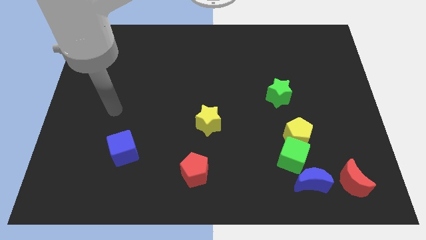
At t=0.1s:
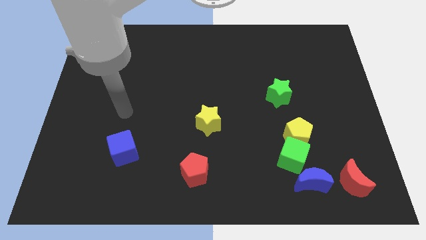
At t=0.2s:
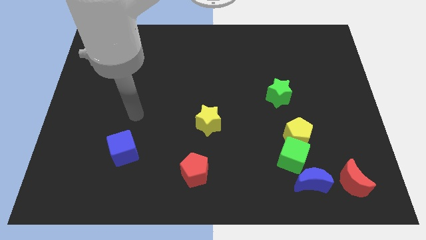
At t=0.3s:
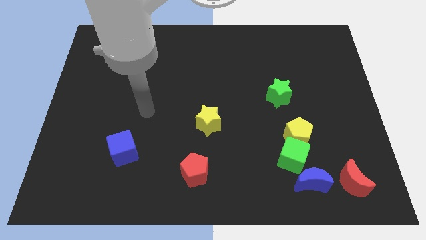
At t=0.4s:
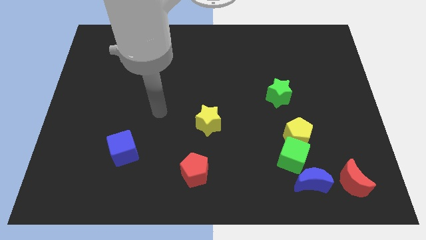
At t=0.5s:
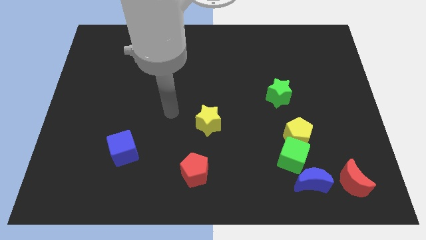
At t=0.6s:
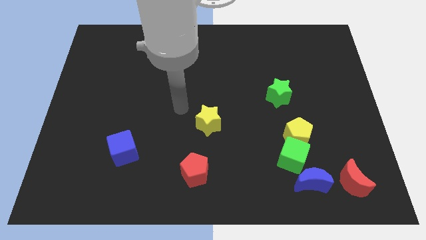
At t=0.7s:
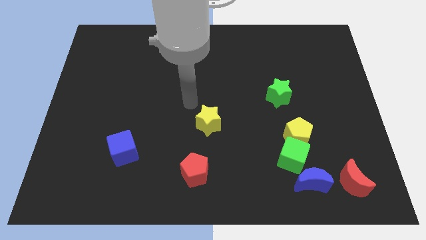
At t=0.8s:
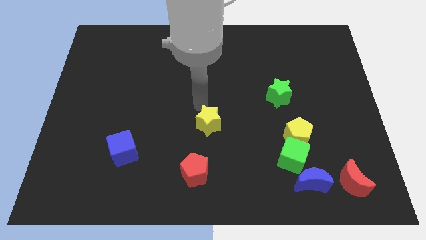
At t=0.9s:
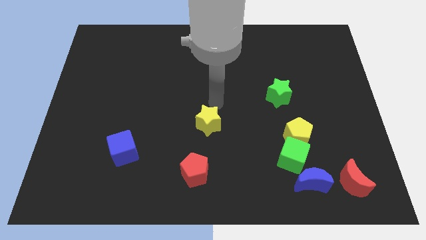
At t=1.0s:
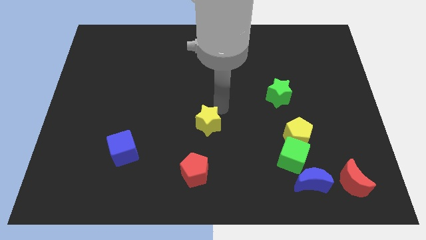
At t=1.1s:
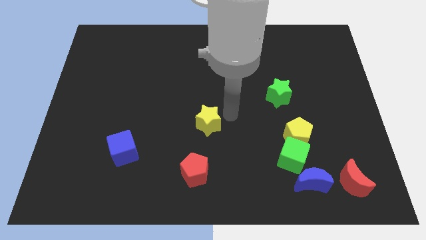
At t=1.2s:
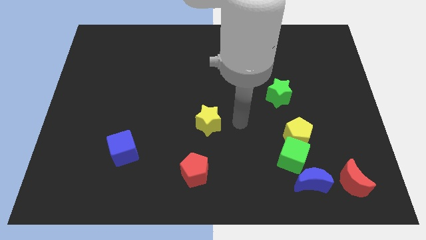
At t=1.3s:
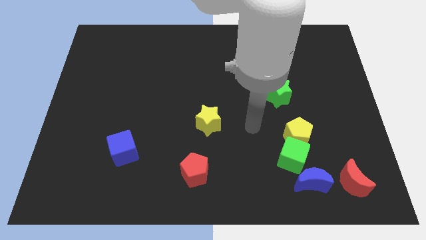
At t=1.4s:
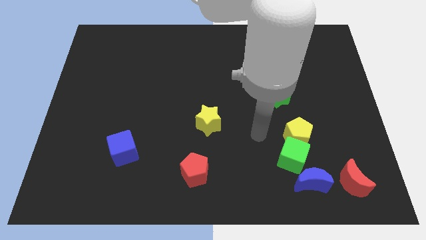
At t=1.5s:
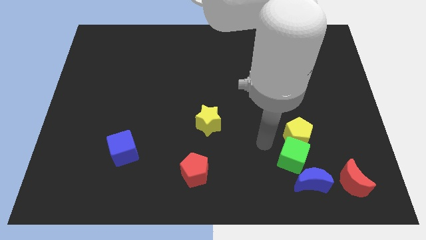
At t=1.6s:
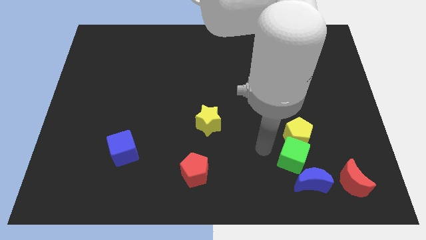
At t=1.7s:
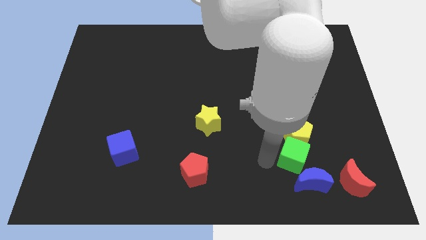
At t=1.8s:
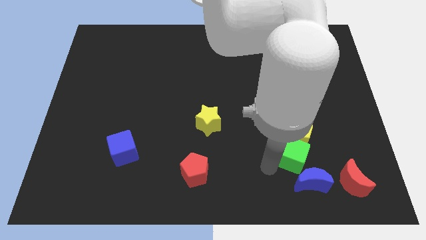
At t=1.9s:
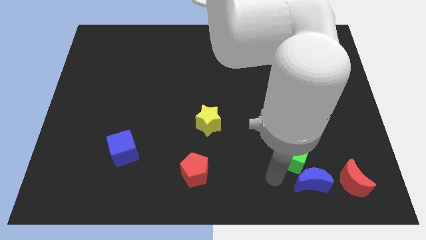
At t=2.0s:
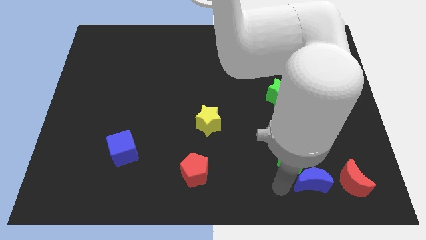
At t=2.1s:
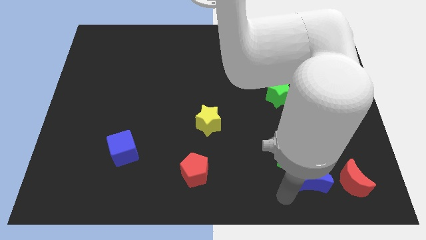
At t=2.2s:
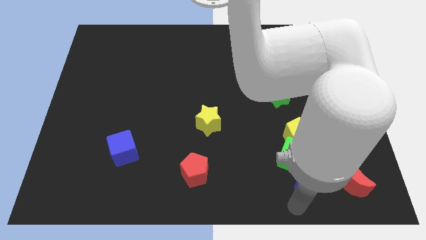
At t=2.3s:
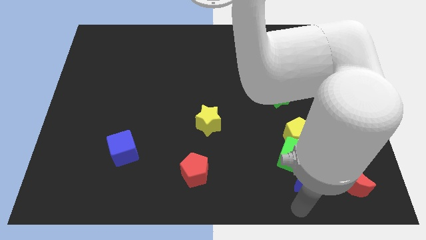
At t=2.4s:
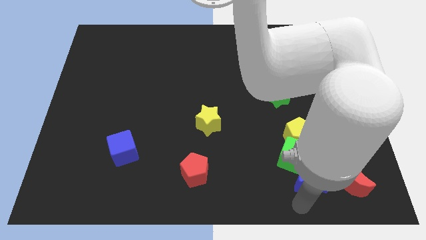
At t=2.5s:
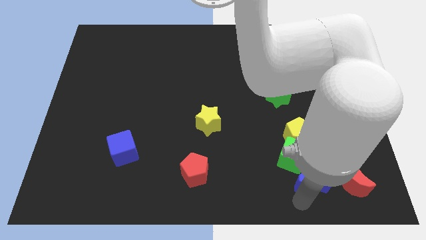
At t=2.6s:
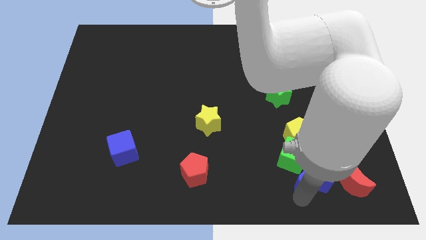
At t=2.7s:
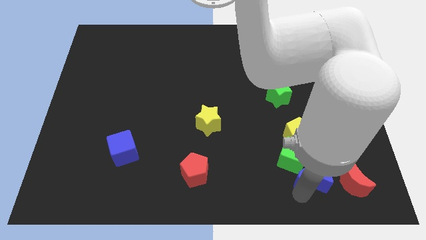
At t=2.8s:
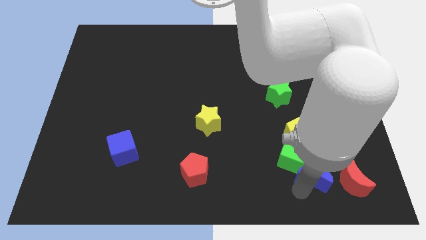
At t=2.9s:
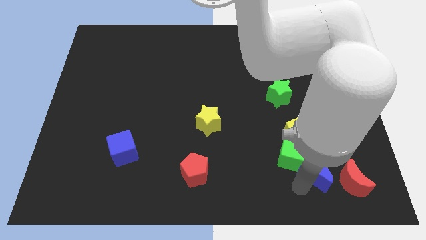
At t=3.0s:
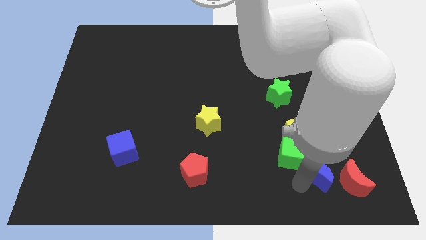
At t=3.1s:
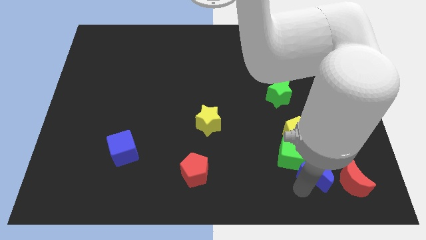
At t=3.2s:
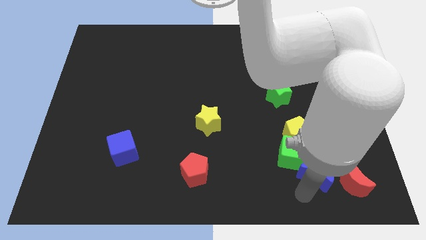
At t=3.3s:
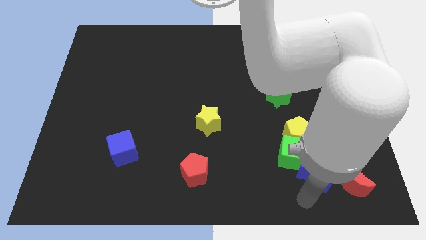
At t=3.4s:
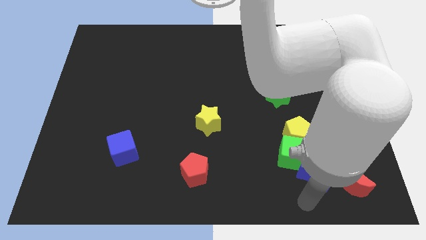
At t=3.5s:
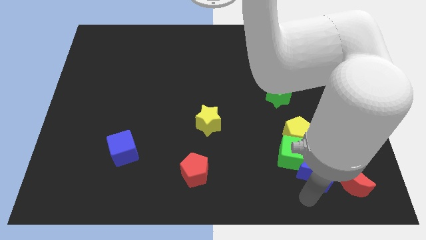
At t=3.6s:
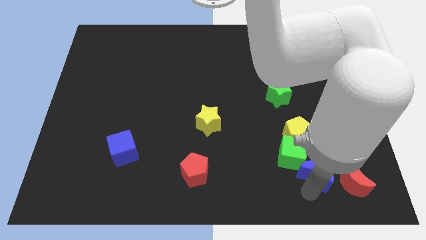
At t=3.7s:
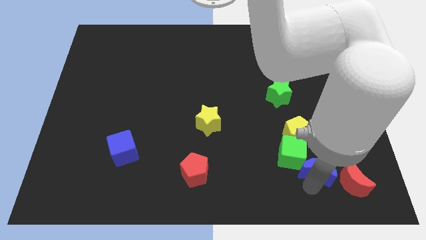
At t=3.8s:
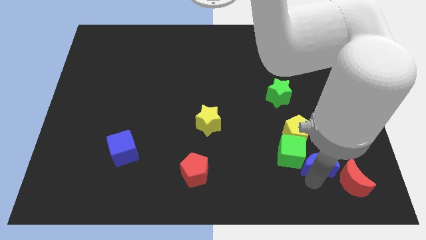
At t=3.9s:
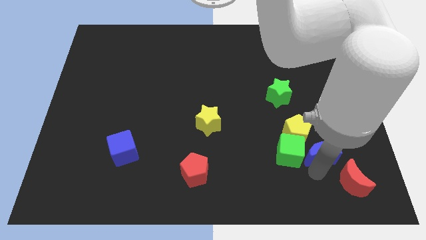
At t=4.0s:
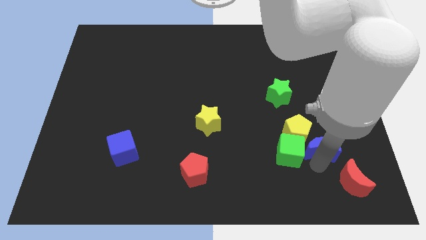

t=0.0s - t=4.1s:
push the blue moon a little upwards

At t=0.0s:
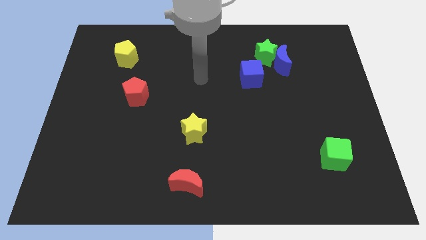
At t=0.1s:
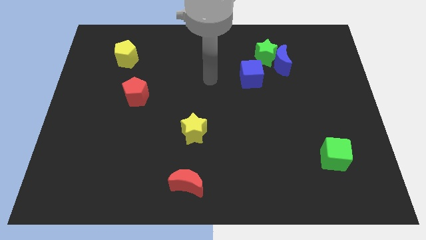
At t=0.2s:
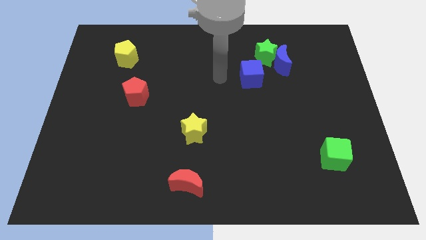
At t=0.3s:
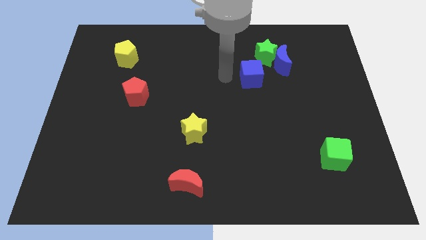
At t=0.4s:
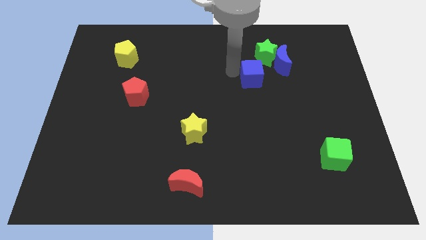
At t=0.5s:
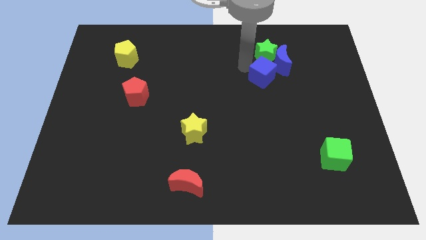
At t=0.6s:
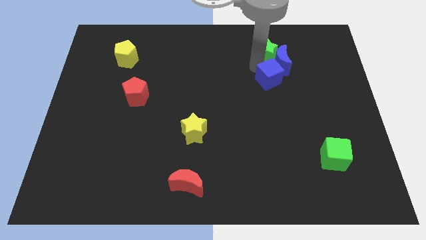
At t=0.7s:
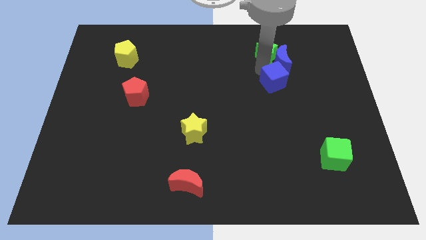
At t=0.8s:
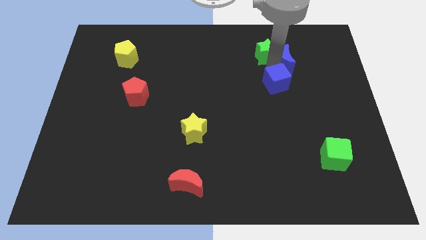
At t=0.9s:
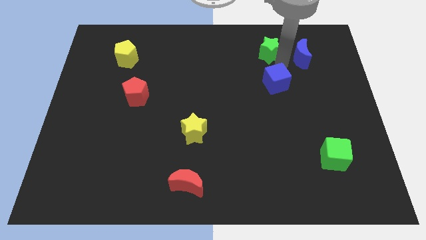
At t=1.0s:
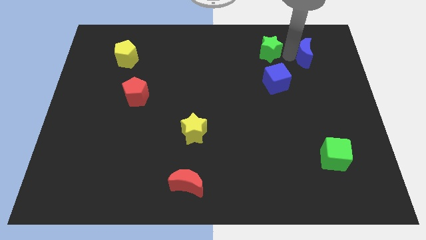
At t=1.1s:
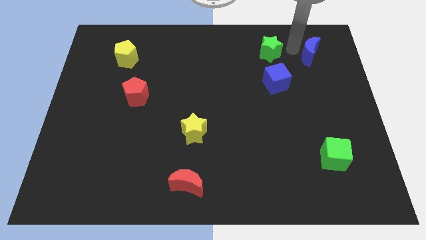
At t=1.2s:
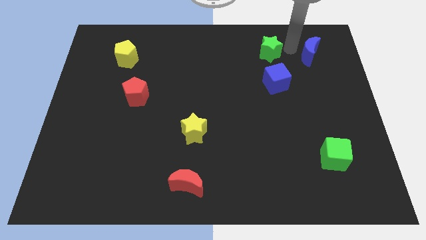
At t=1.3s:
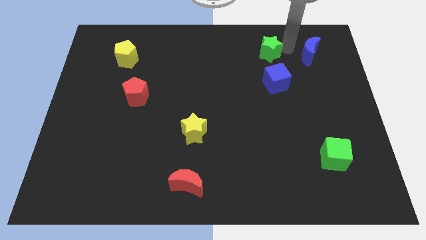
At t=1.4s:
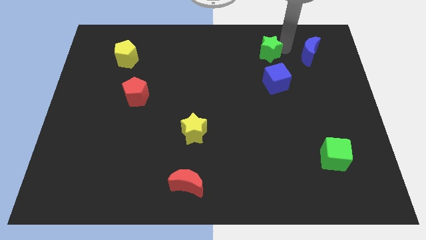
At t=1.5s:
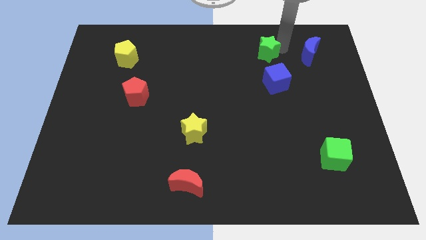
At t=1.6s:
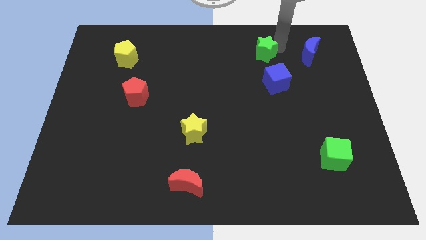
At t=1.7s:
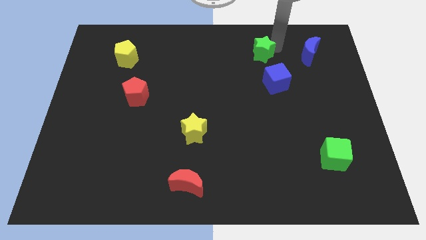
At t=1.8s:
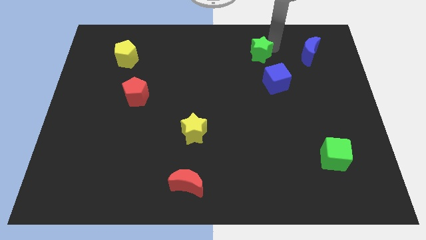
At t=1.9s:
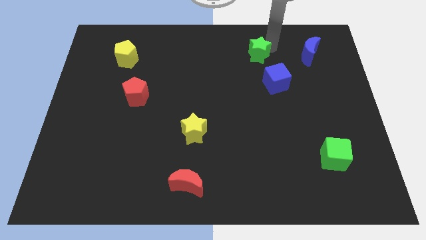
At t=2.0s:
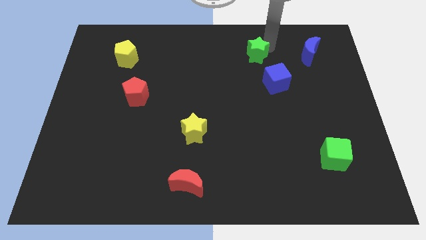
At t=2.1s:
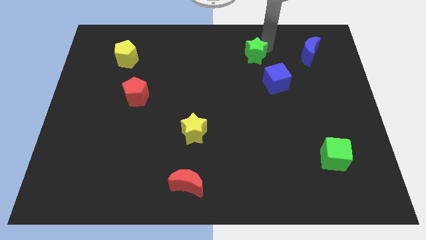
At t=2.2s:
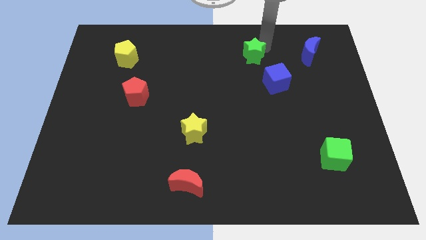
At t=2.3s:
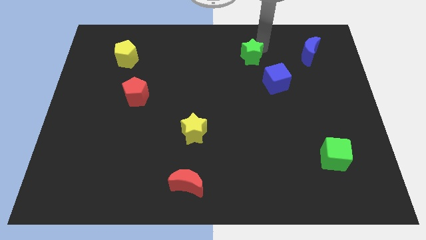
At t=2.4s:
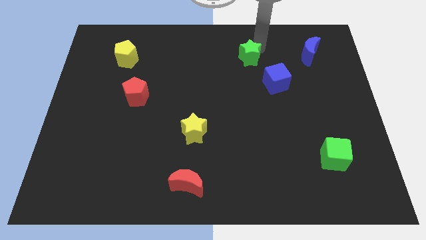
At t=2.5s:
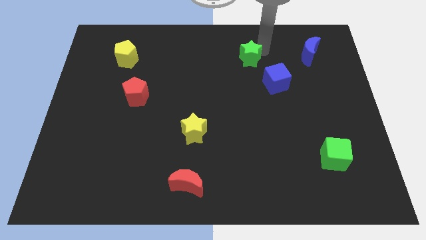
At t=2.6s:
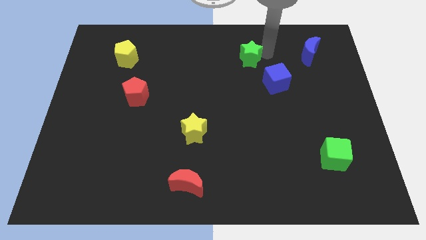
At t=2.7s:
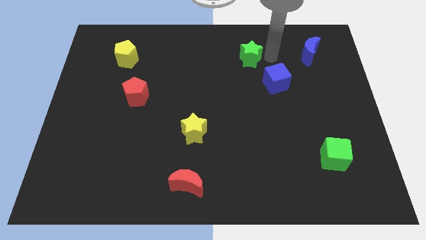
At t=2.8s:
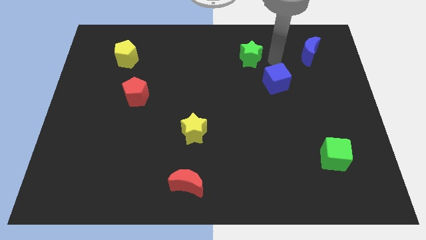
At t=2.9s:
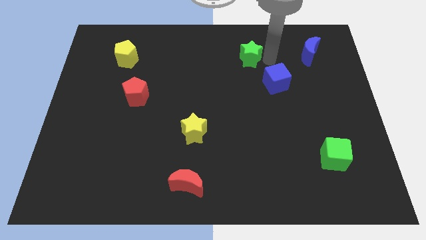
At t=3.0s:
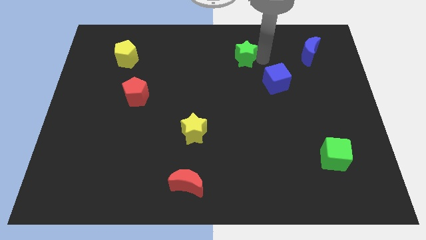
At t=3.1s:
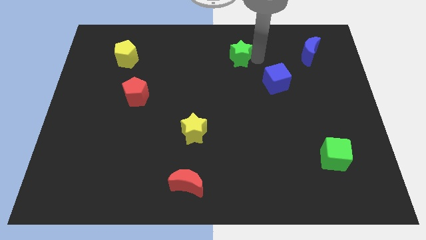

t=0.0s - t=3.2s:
push the green star somewhat left

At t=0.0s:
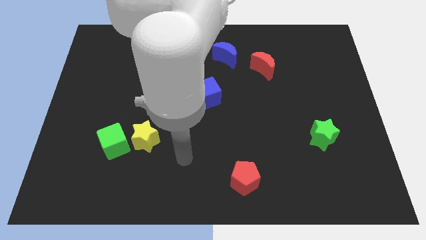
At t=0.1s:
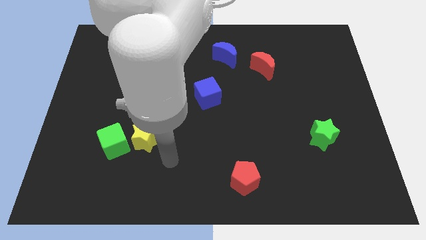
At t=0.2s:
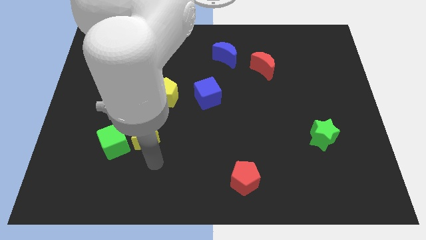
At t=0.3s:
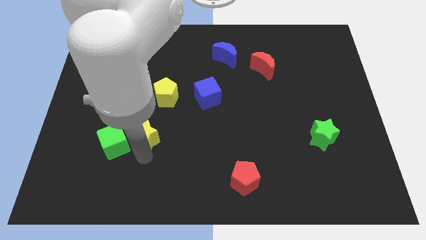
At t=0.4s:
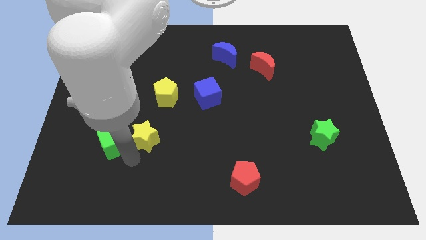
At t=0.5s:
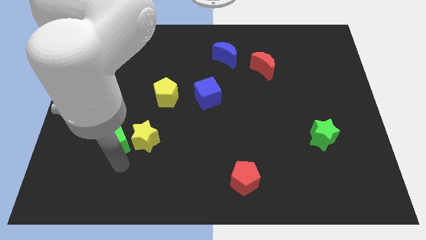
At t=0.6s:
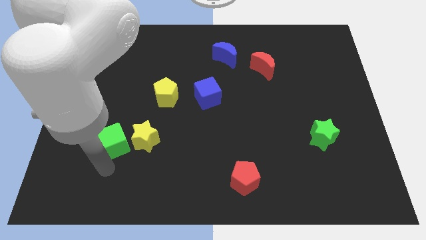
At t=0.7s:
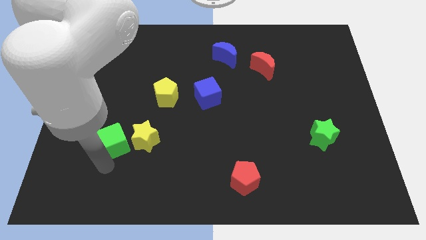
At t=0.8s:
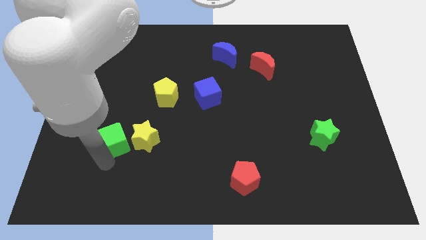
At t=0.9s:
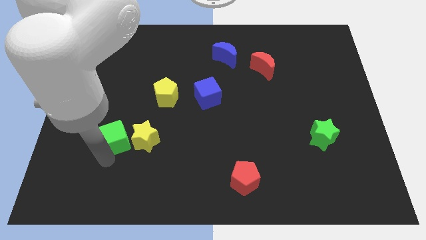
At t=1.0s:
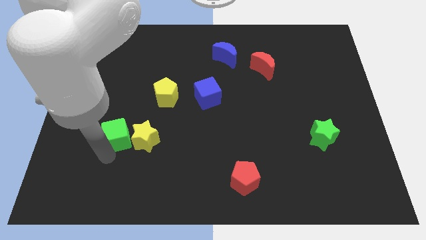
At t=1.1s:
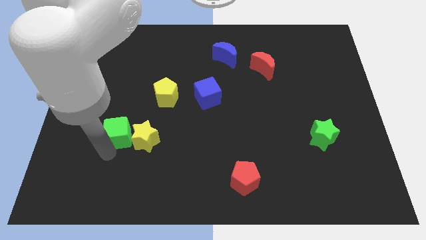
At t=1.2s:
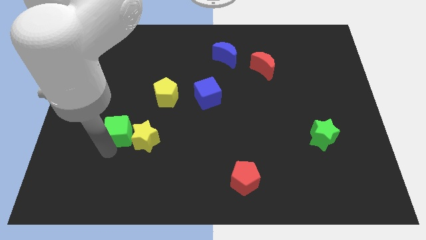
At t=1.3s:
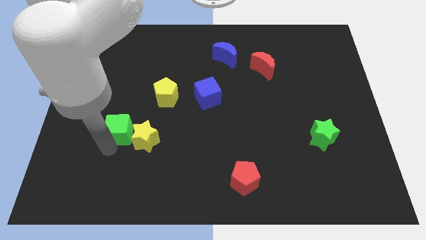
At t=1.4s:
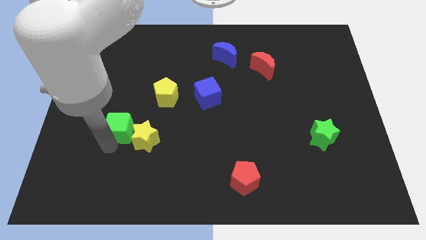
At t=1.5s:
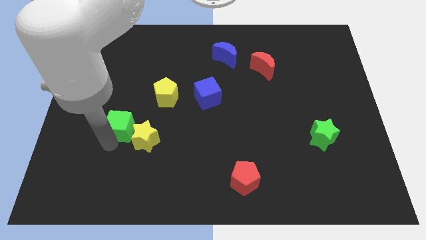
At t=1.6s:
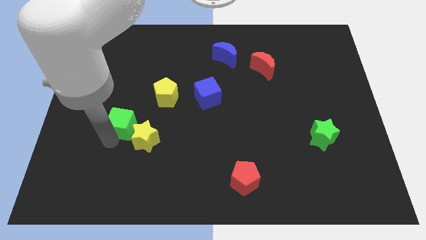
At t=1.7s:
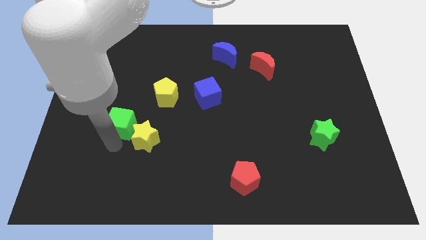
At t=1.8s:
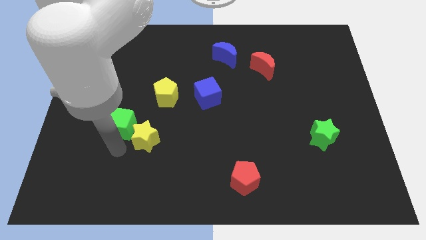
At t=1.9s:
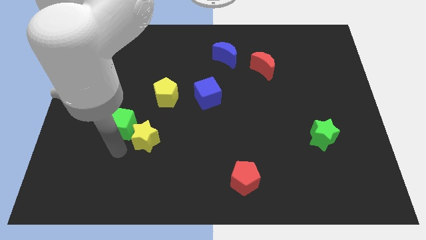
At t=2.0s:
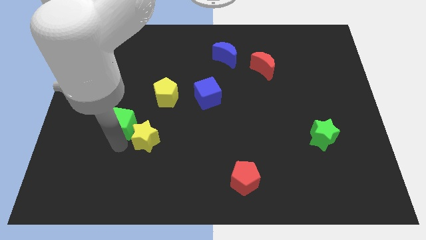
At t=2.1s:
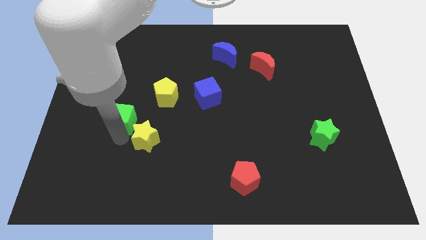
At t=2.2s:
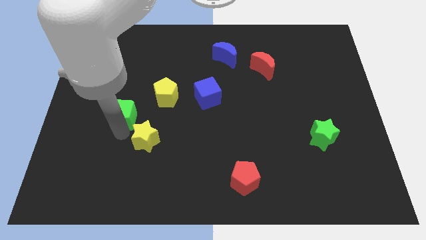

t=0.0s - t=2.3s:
slightly move the green cube upwards
